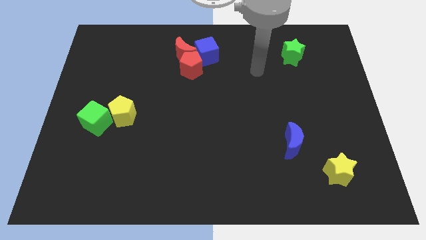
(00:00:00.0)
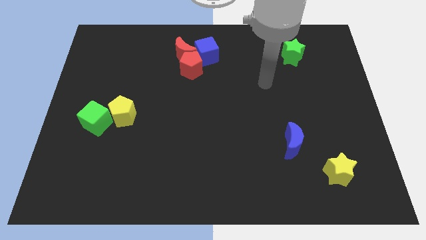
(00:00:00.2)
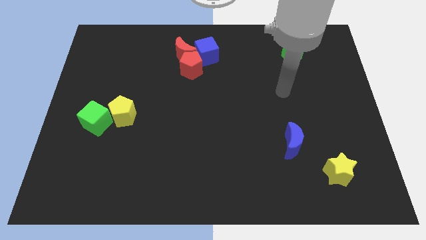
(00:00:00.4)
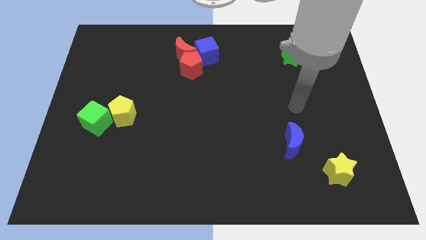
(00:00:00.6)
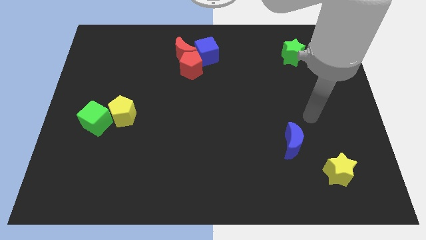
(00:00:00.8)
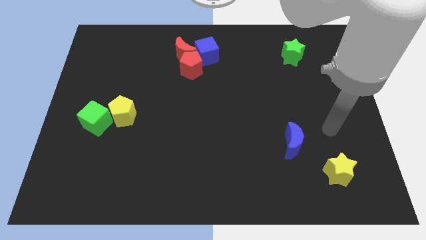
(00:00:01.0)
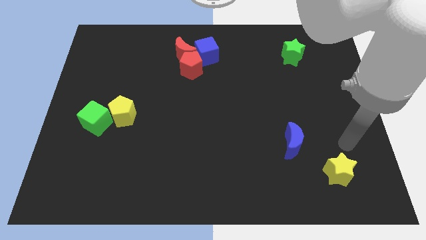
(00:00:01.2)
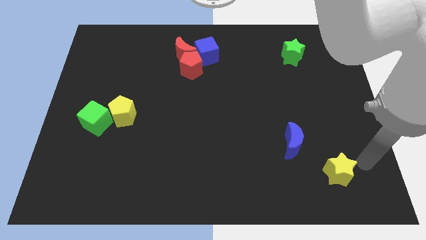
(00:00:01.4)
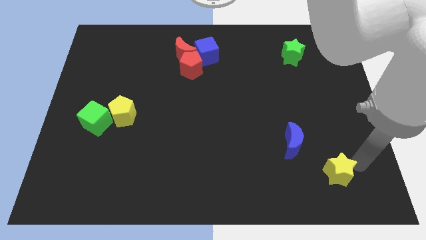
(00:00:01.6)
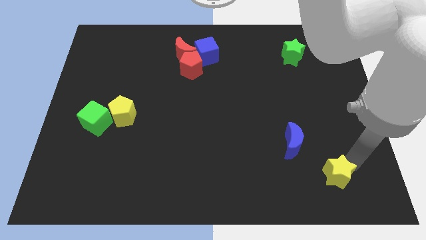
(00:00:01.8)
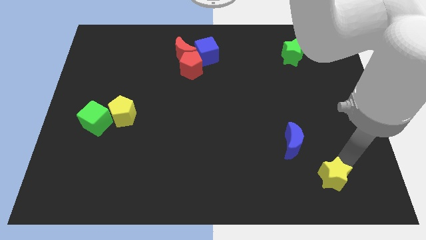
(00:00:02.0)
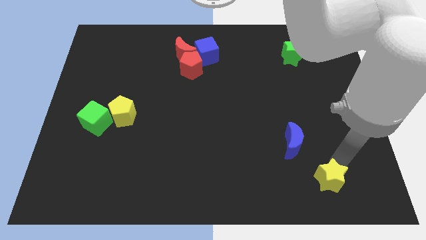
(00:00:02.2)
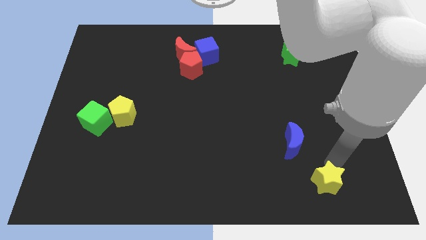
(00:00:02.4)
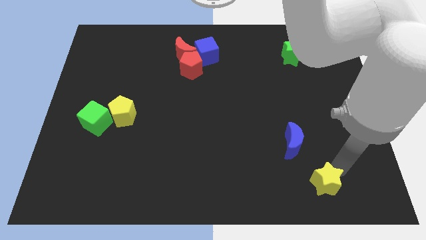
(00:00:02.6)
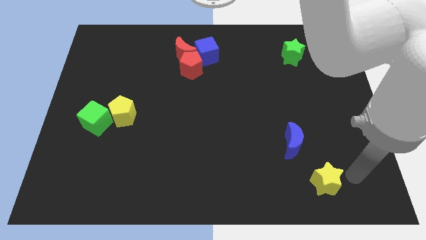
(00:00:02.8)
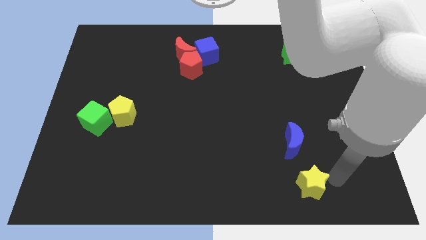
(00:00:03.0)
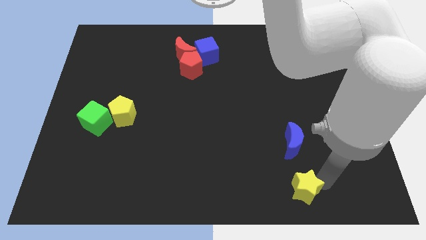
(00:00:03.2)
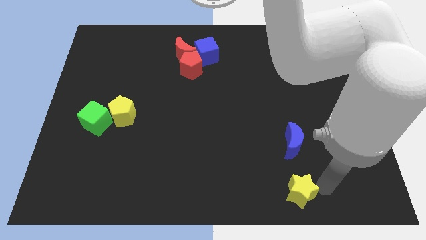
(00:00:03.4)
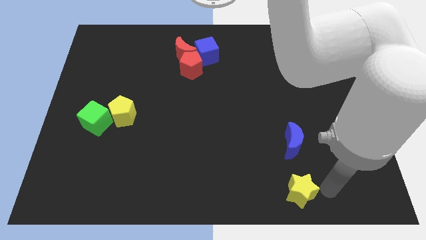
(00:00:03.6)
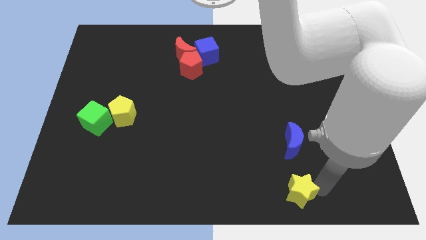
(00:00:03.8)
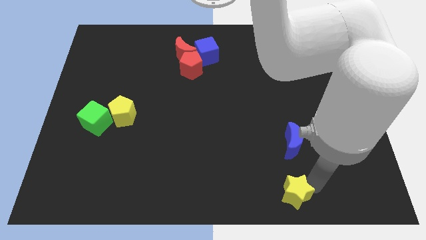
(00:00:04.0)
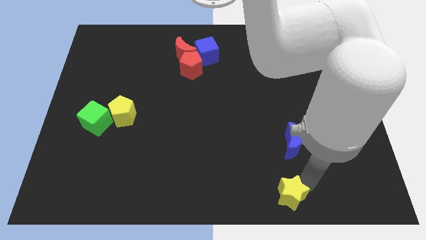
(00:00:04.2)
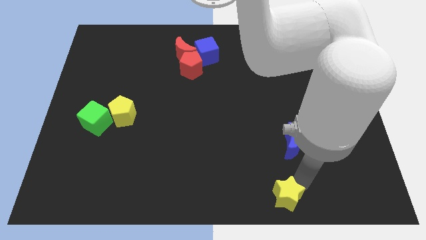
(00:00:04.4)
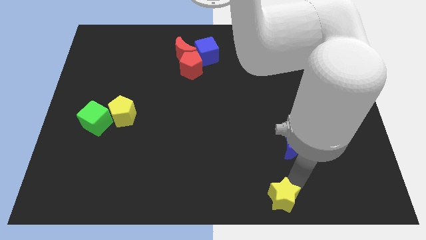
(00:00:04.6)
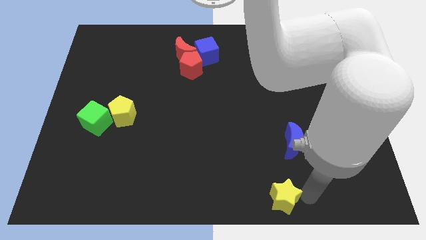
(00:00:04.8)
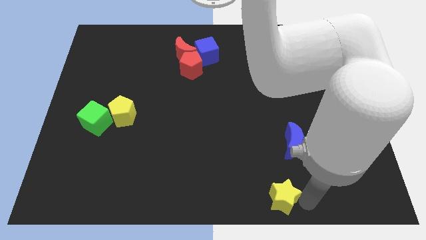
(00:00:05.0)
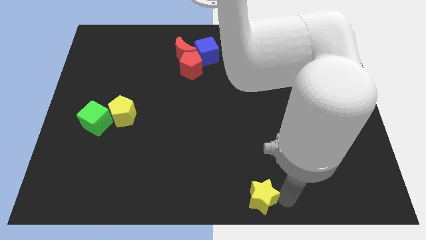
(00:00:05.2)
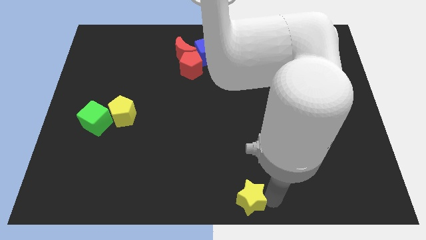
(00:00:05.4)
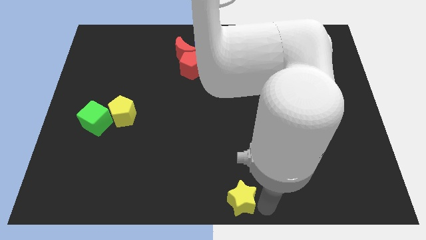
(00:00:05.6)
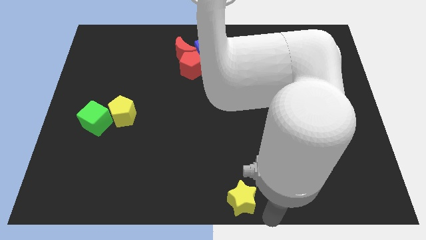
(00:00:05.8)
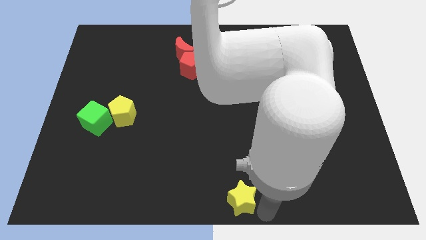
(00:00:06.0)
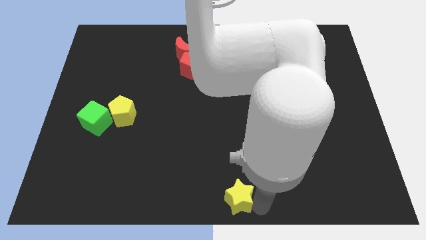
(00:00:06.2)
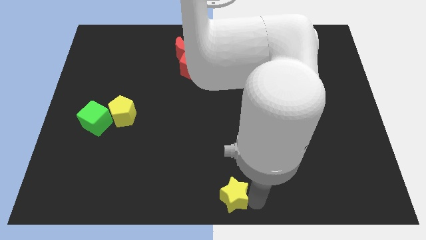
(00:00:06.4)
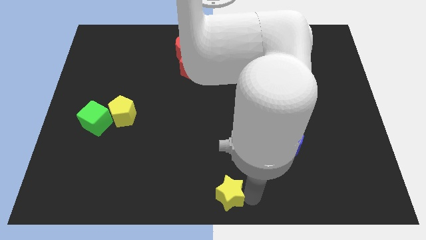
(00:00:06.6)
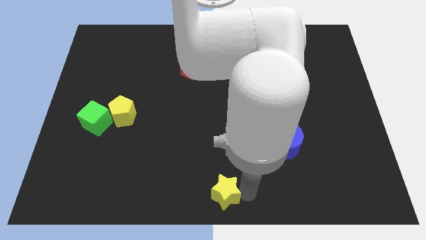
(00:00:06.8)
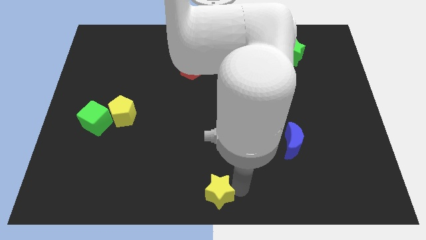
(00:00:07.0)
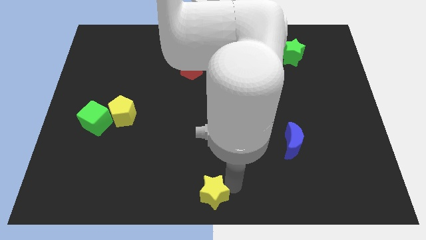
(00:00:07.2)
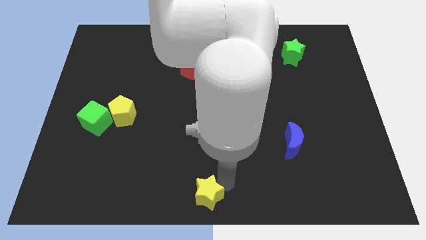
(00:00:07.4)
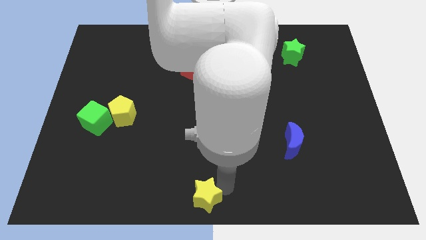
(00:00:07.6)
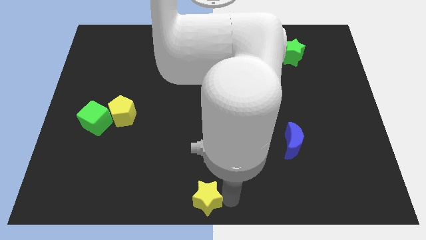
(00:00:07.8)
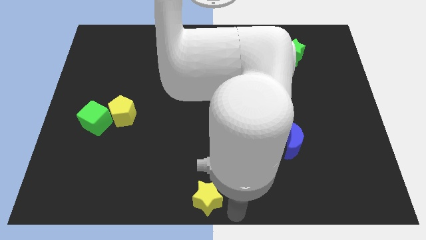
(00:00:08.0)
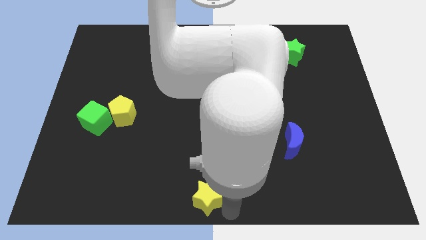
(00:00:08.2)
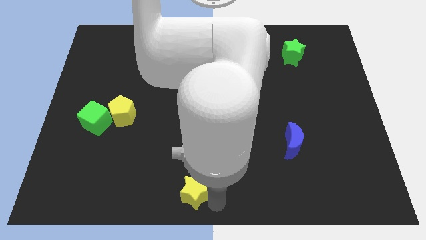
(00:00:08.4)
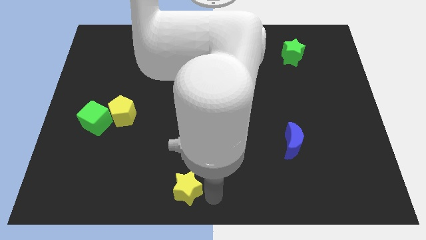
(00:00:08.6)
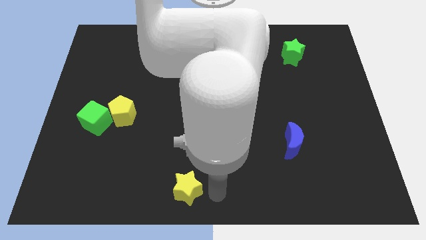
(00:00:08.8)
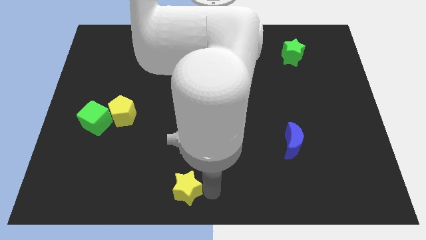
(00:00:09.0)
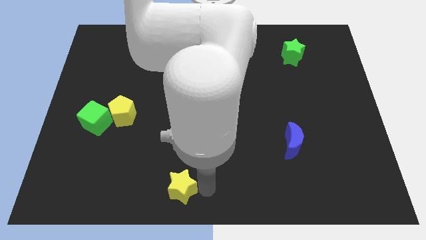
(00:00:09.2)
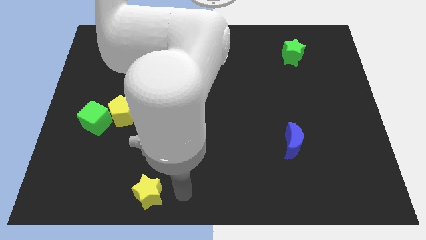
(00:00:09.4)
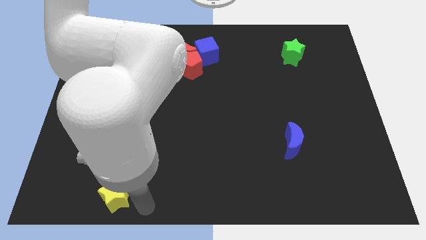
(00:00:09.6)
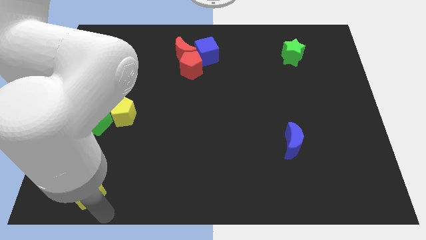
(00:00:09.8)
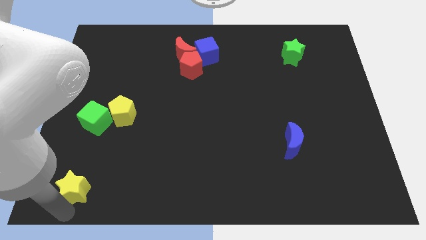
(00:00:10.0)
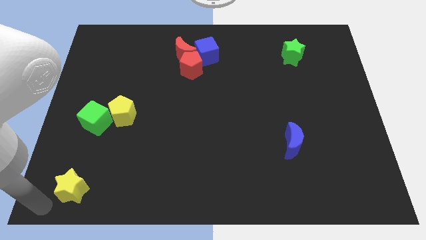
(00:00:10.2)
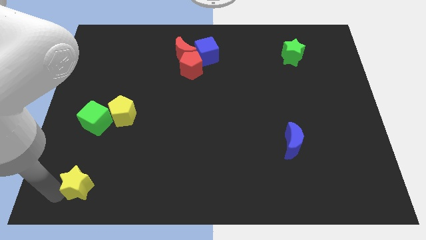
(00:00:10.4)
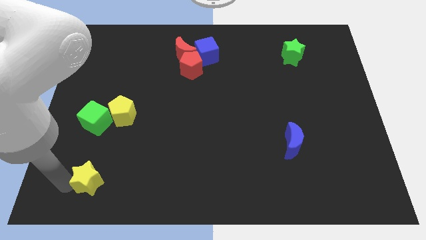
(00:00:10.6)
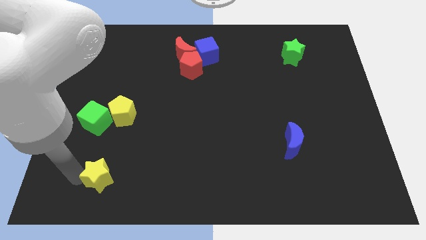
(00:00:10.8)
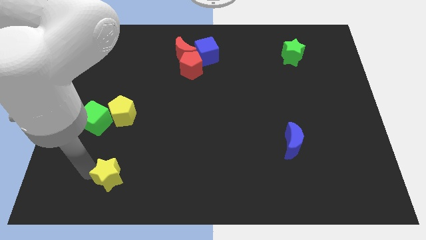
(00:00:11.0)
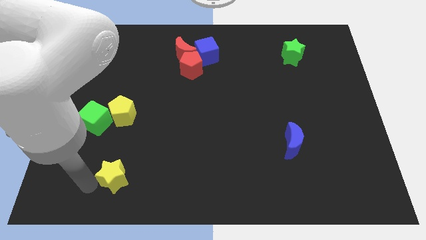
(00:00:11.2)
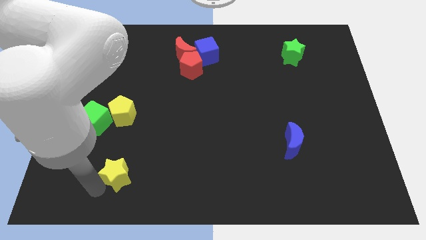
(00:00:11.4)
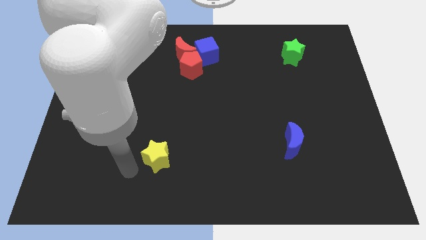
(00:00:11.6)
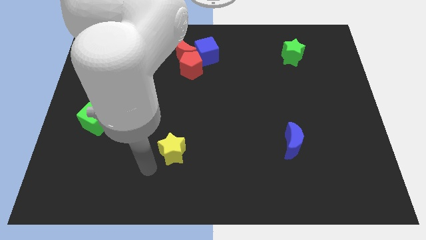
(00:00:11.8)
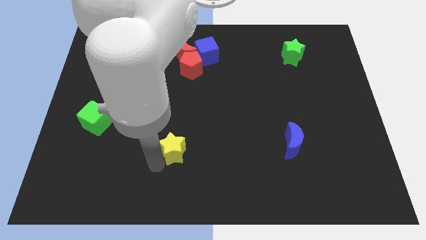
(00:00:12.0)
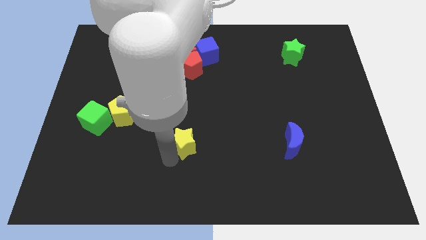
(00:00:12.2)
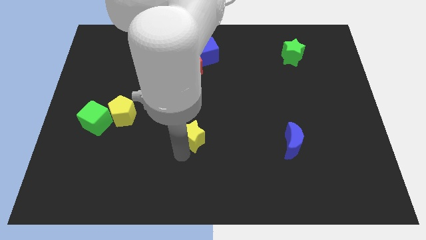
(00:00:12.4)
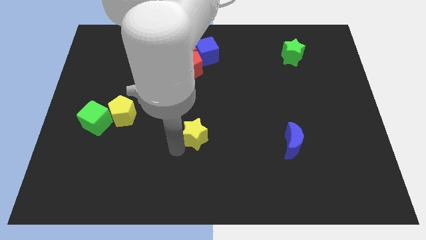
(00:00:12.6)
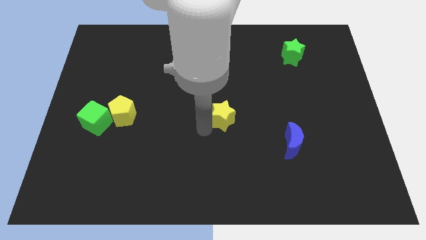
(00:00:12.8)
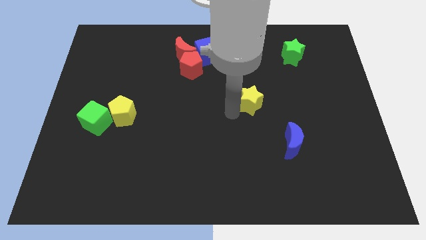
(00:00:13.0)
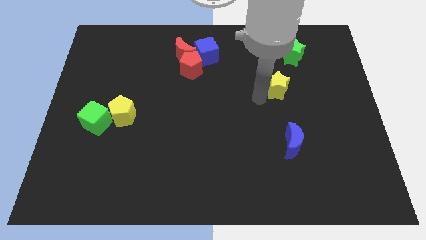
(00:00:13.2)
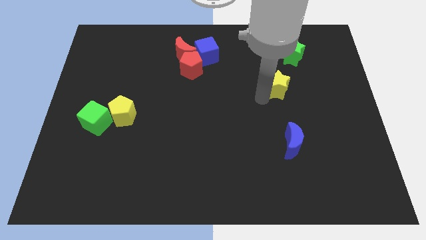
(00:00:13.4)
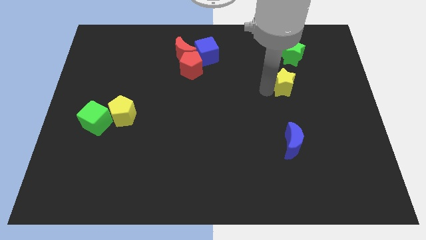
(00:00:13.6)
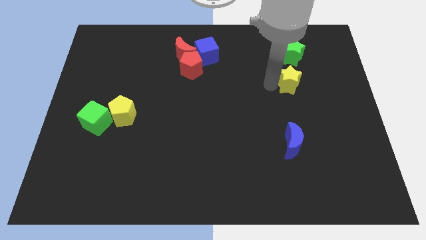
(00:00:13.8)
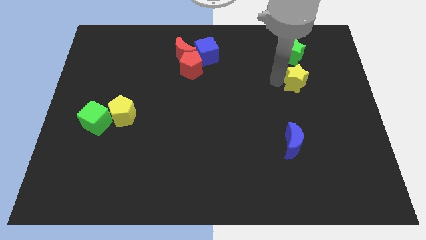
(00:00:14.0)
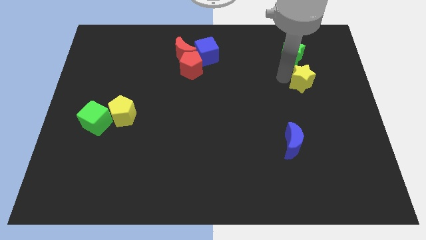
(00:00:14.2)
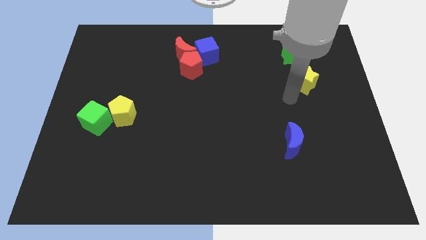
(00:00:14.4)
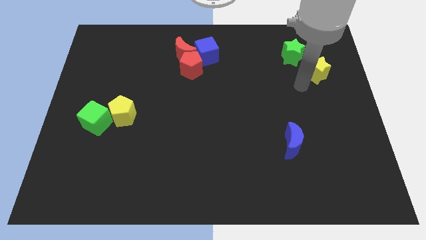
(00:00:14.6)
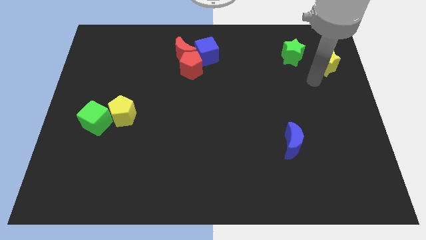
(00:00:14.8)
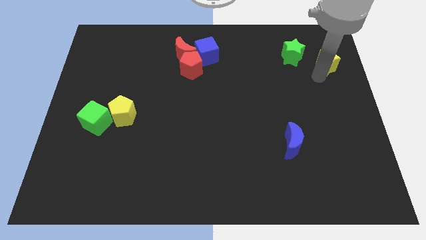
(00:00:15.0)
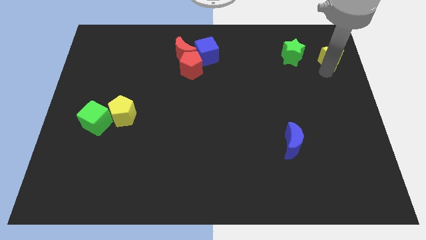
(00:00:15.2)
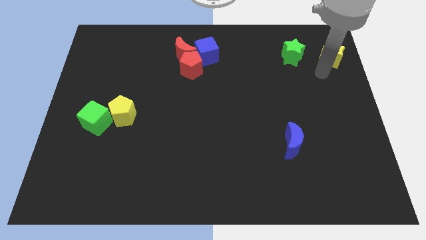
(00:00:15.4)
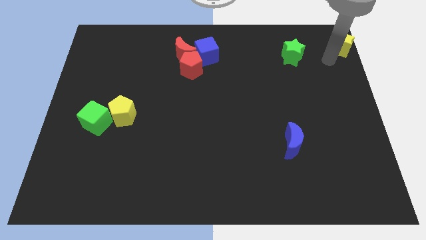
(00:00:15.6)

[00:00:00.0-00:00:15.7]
put the yellow star to the upper right corner
